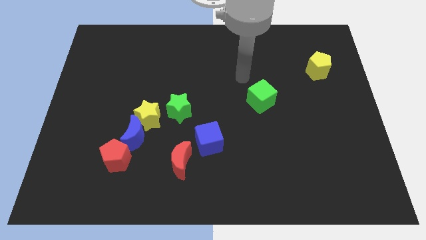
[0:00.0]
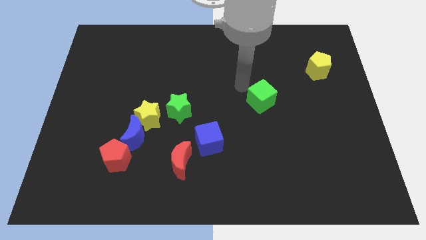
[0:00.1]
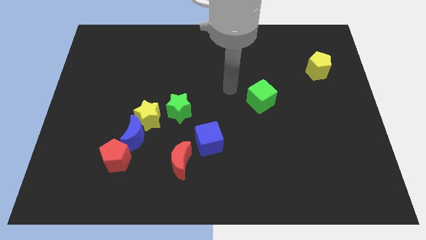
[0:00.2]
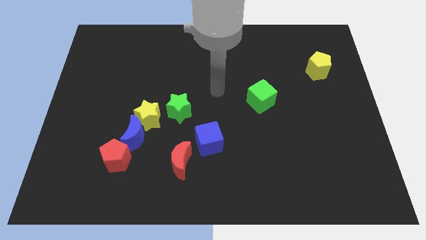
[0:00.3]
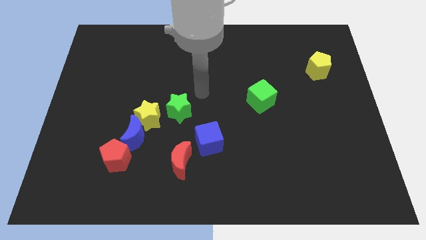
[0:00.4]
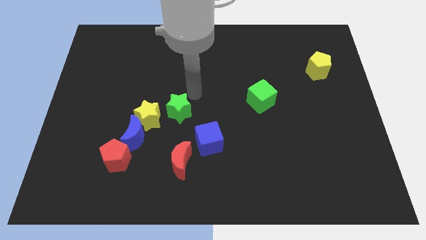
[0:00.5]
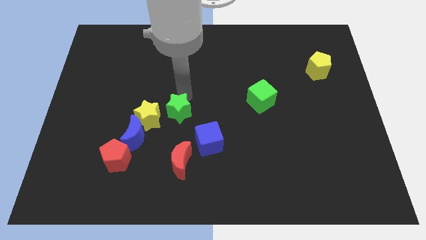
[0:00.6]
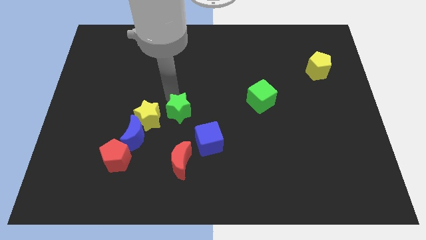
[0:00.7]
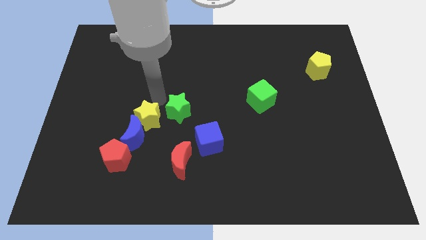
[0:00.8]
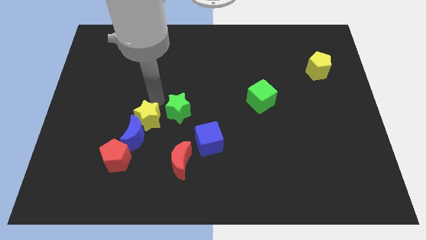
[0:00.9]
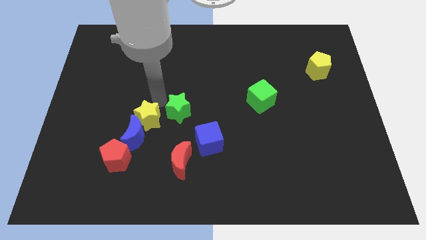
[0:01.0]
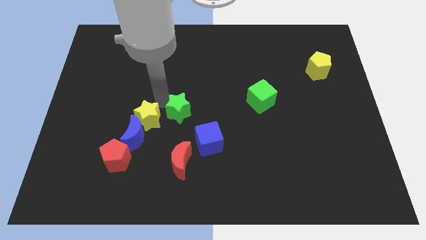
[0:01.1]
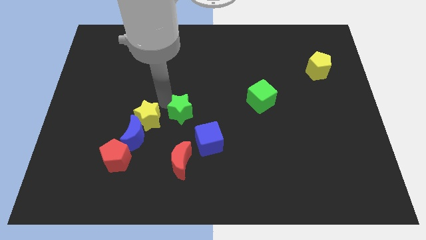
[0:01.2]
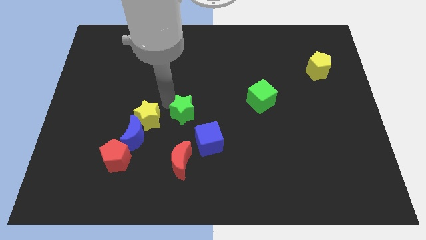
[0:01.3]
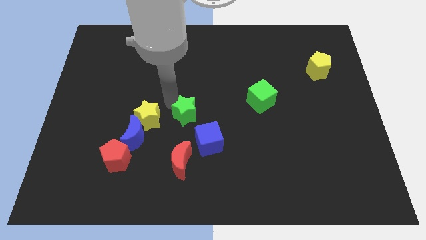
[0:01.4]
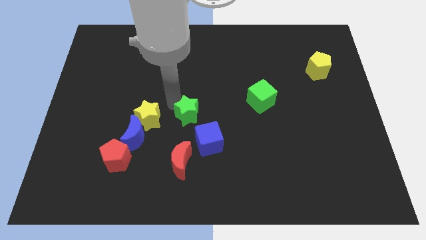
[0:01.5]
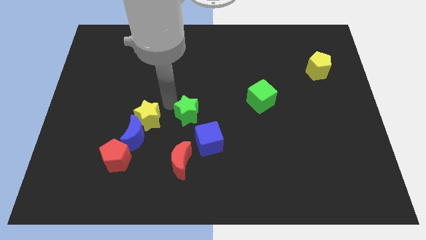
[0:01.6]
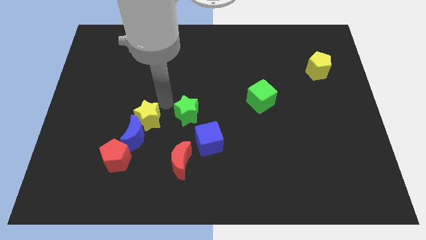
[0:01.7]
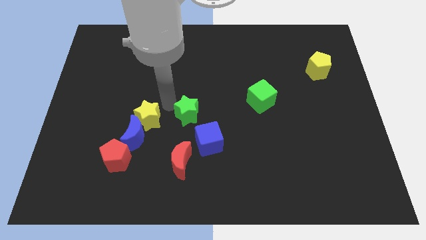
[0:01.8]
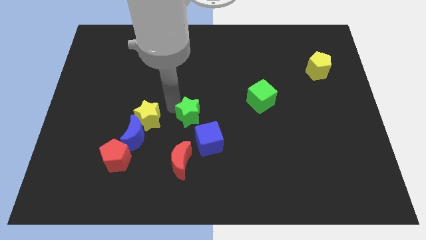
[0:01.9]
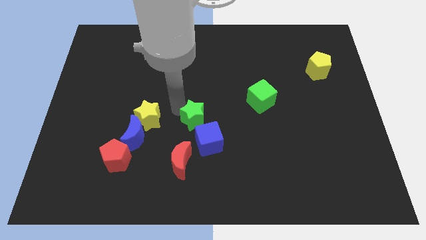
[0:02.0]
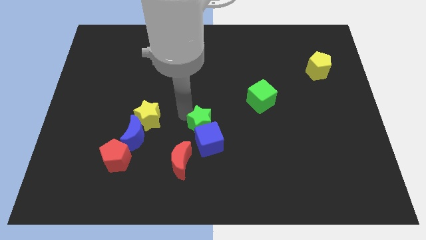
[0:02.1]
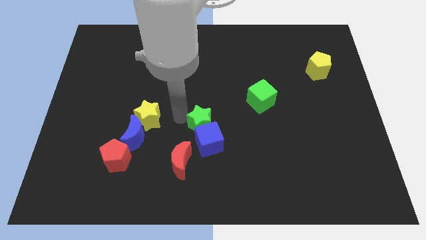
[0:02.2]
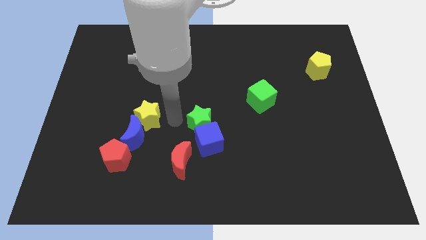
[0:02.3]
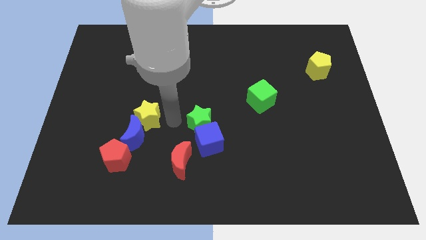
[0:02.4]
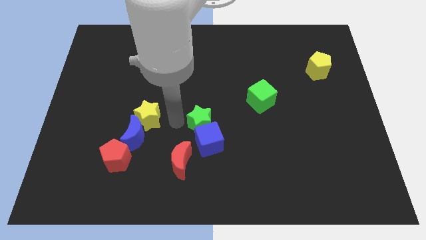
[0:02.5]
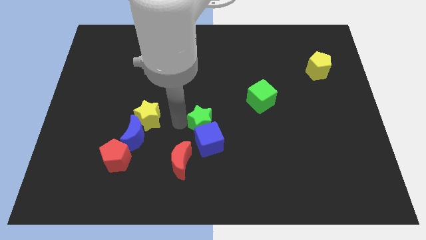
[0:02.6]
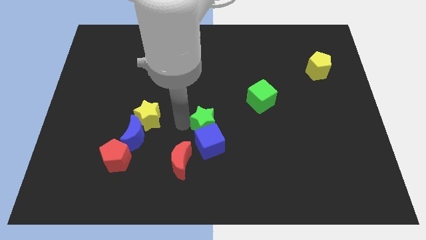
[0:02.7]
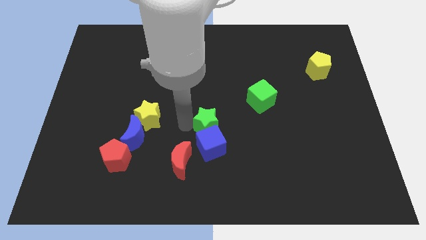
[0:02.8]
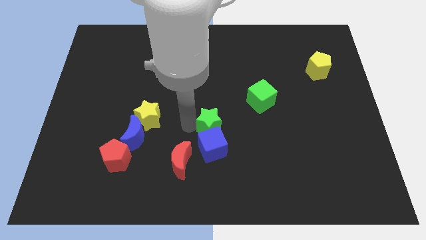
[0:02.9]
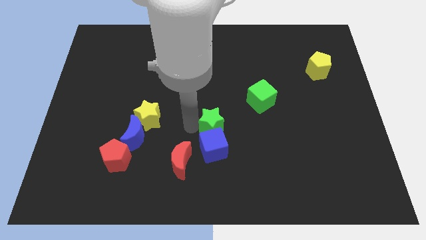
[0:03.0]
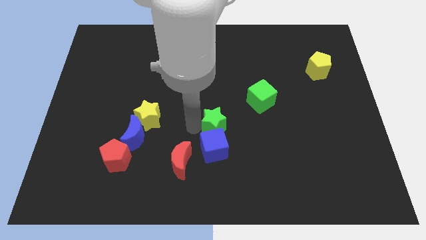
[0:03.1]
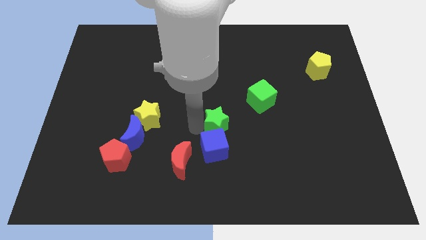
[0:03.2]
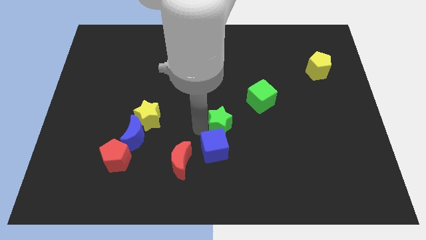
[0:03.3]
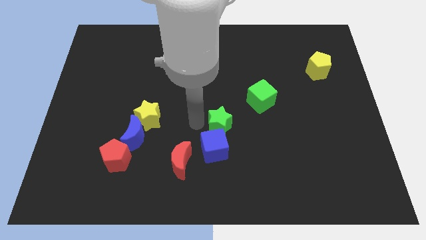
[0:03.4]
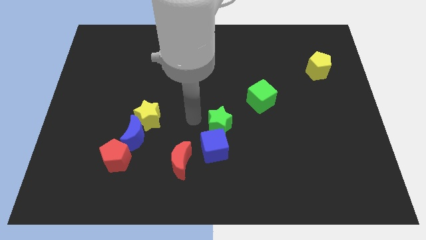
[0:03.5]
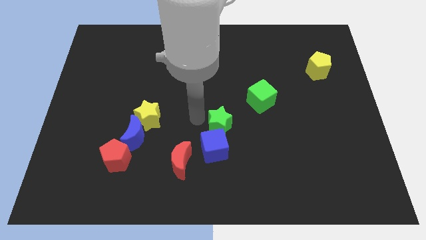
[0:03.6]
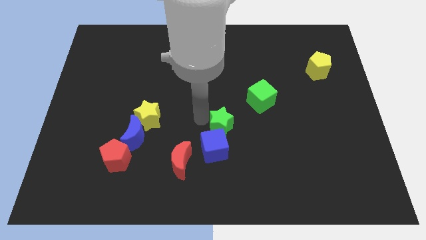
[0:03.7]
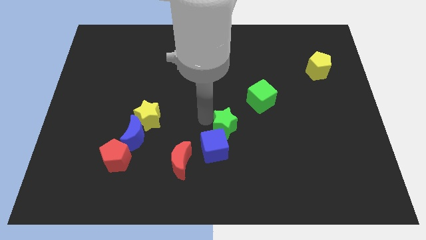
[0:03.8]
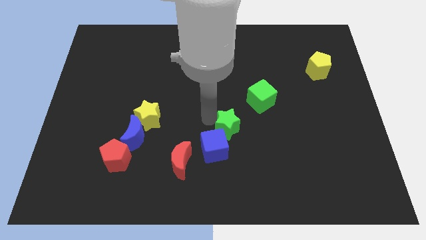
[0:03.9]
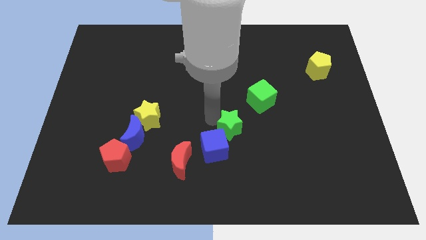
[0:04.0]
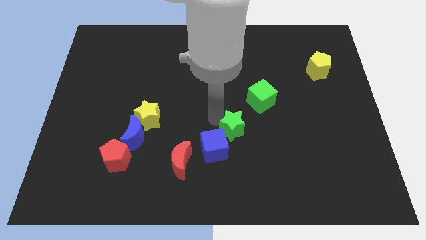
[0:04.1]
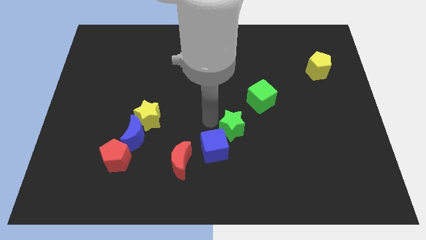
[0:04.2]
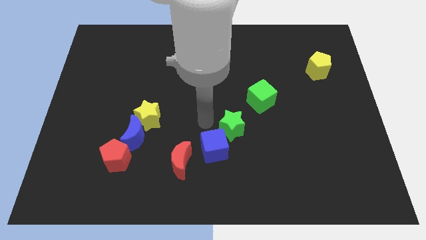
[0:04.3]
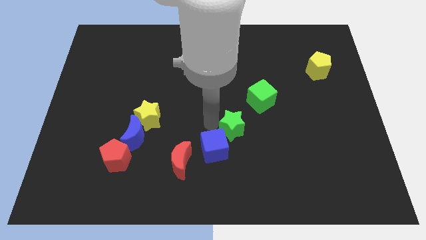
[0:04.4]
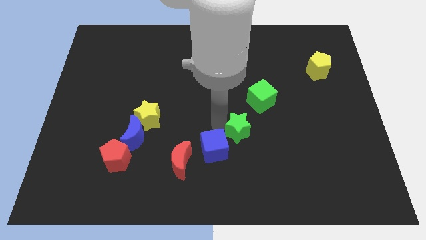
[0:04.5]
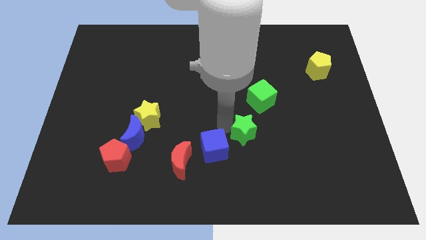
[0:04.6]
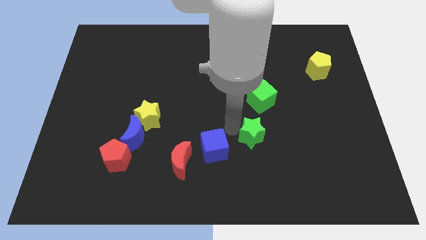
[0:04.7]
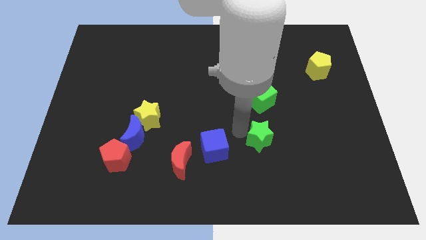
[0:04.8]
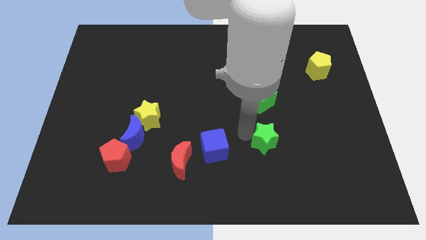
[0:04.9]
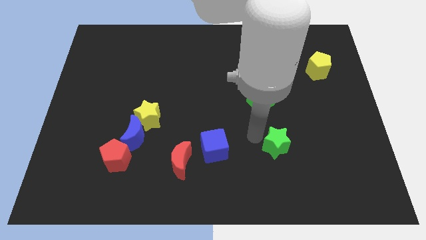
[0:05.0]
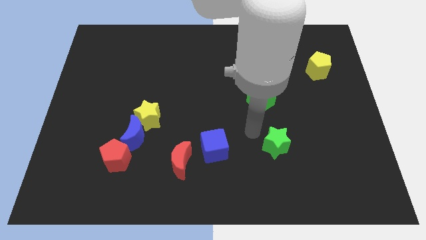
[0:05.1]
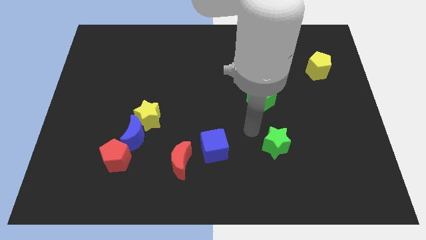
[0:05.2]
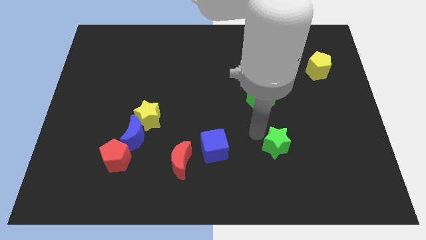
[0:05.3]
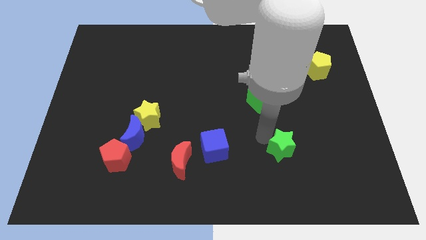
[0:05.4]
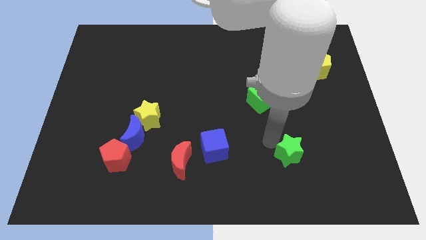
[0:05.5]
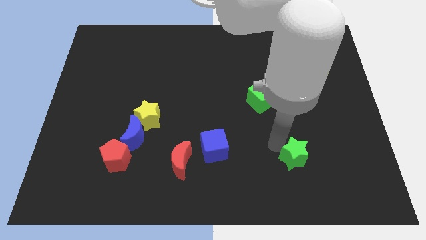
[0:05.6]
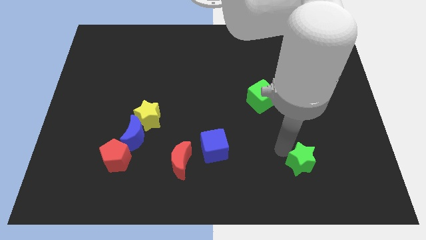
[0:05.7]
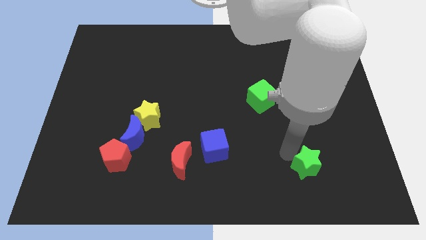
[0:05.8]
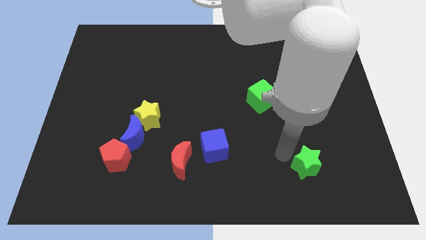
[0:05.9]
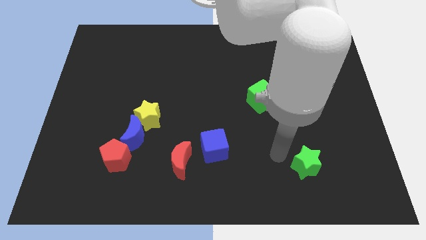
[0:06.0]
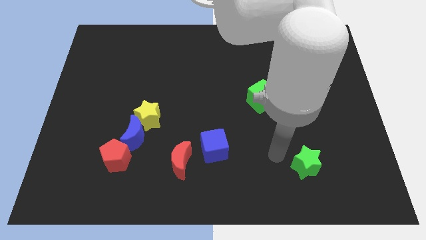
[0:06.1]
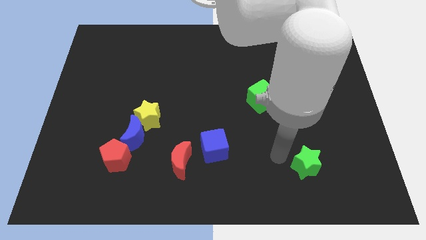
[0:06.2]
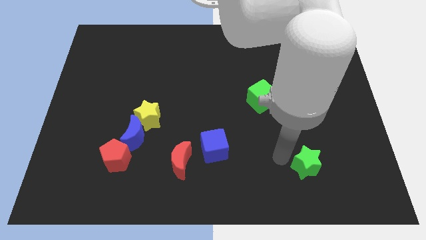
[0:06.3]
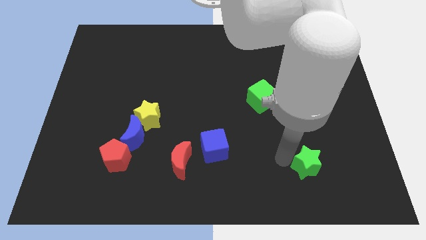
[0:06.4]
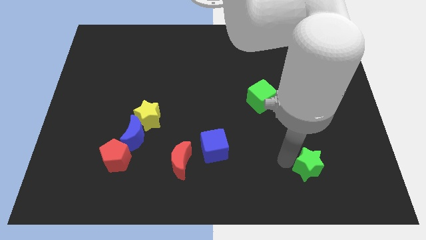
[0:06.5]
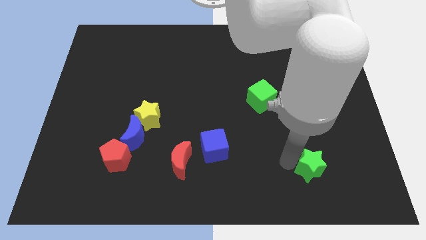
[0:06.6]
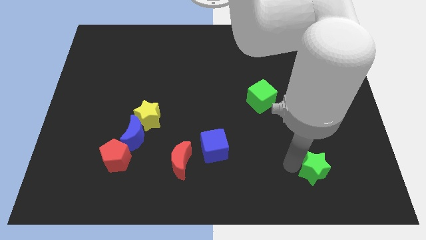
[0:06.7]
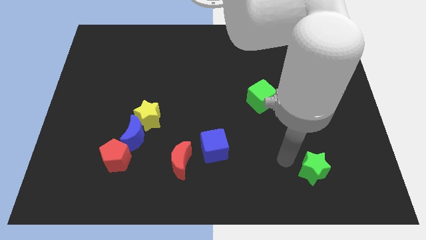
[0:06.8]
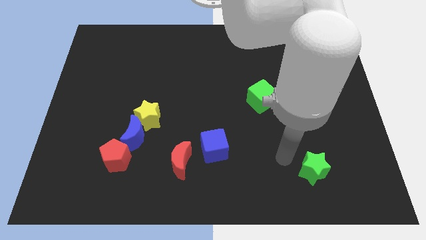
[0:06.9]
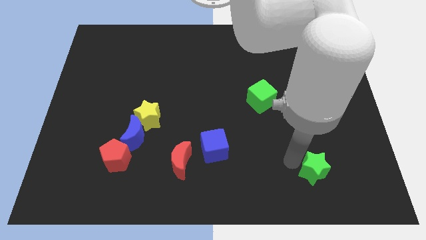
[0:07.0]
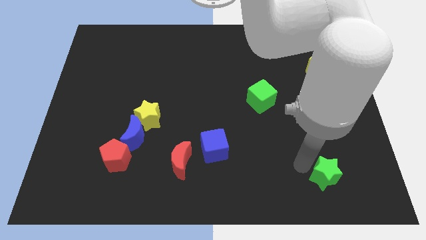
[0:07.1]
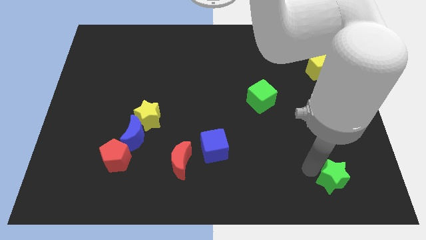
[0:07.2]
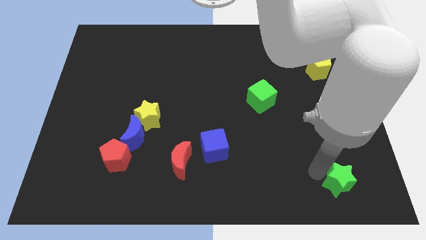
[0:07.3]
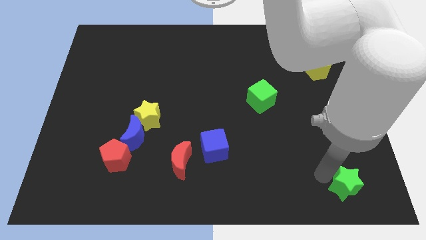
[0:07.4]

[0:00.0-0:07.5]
move the green star to the bottom right
